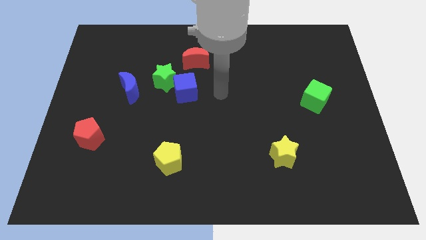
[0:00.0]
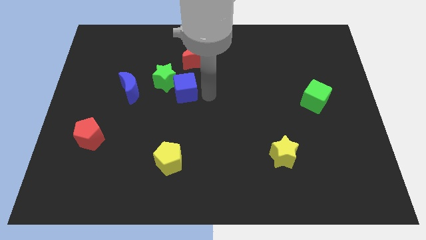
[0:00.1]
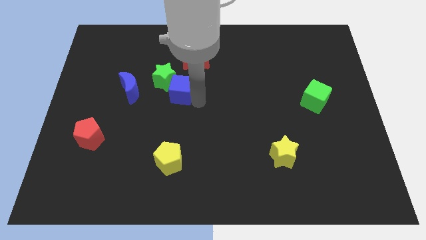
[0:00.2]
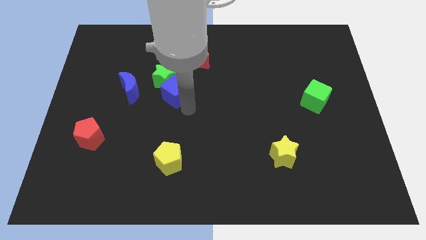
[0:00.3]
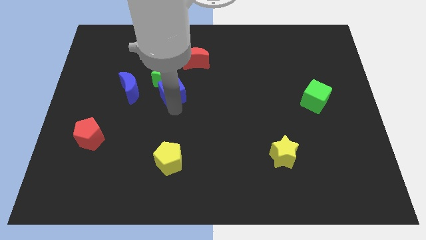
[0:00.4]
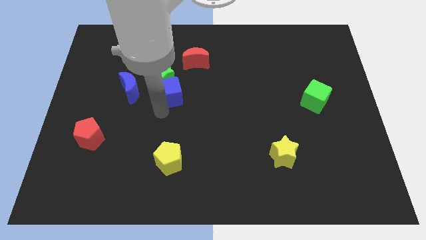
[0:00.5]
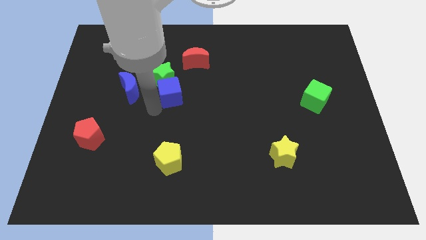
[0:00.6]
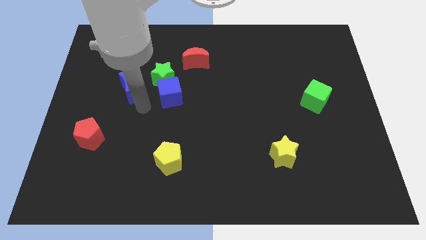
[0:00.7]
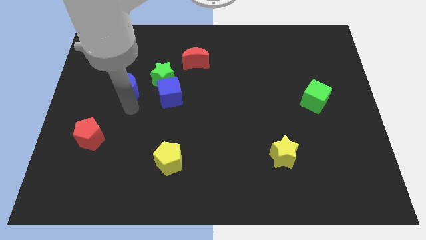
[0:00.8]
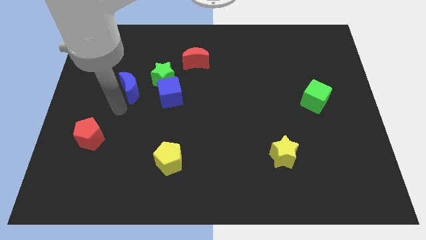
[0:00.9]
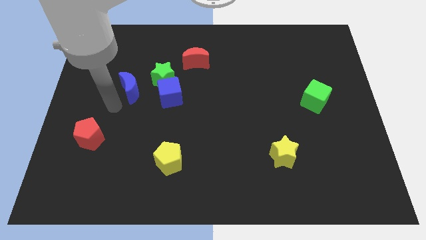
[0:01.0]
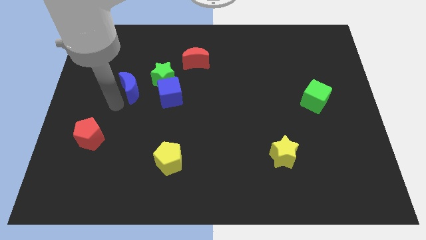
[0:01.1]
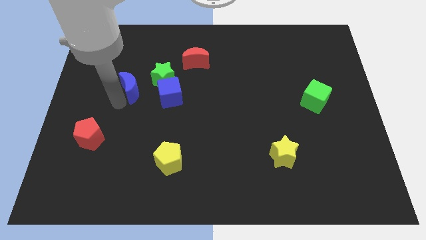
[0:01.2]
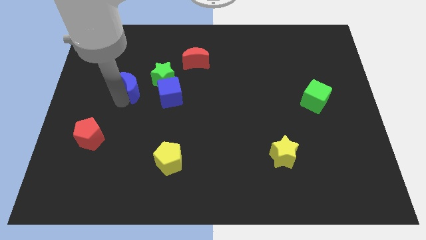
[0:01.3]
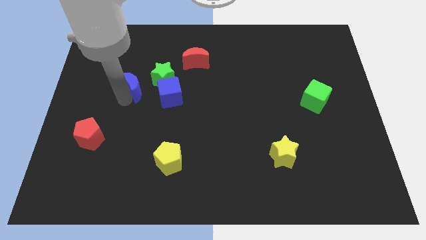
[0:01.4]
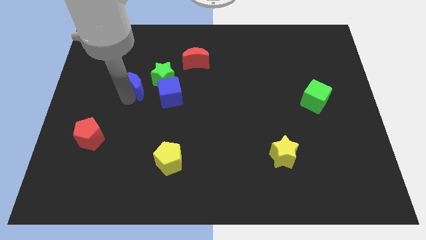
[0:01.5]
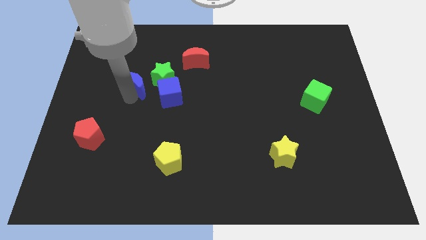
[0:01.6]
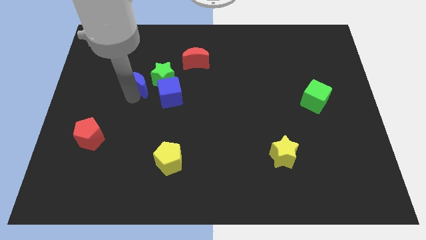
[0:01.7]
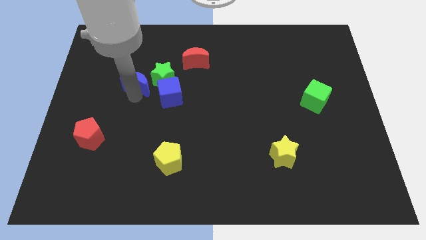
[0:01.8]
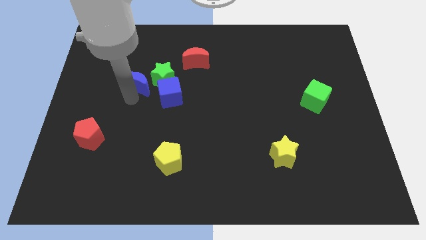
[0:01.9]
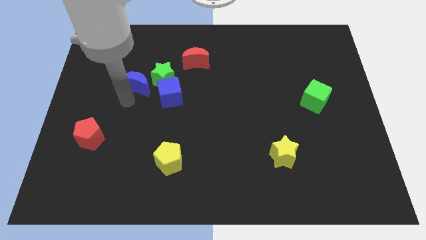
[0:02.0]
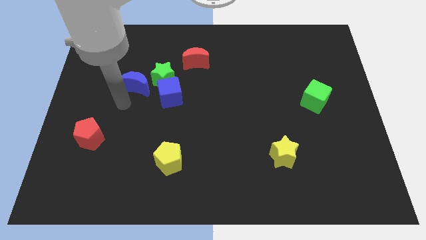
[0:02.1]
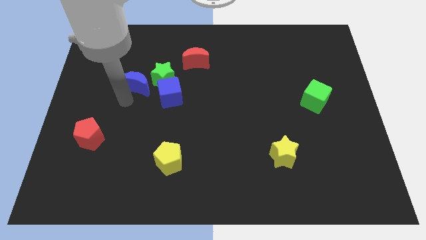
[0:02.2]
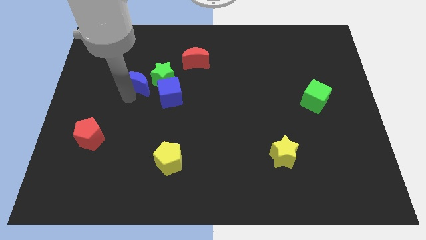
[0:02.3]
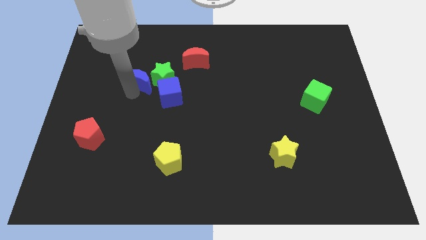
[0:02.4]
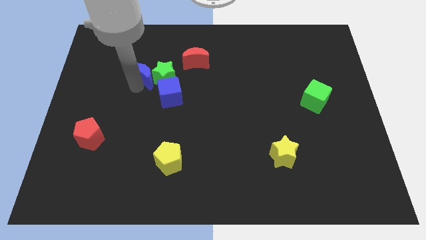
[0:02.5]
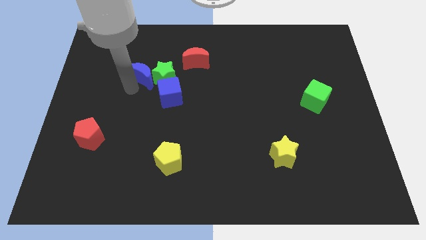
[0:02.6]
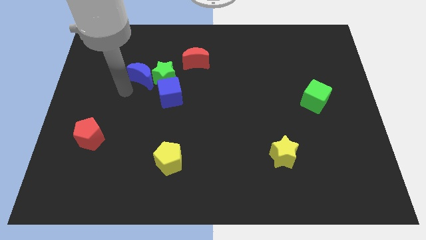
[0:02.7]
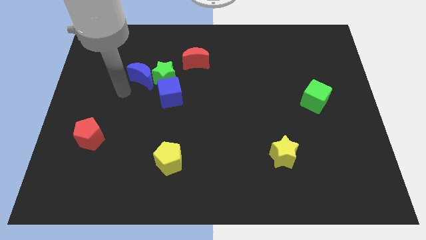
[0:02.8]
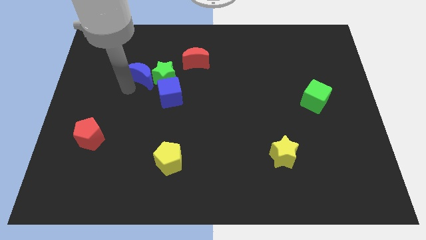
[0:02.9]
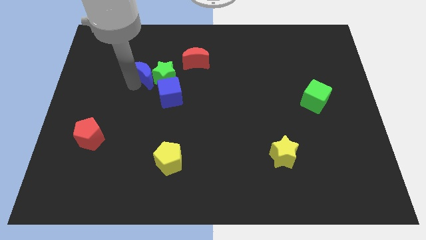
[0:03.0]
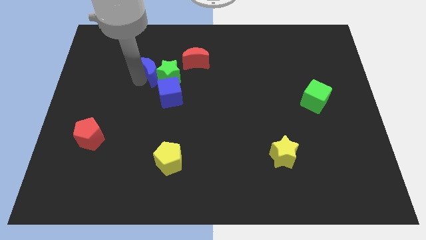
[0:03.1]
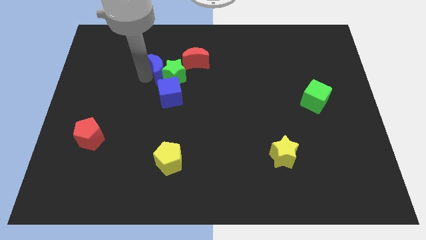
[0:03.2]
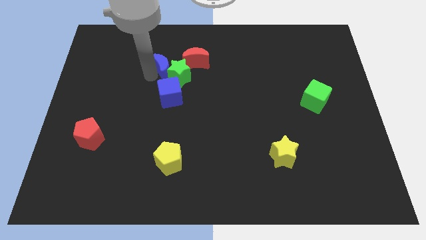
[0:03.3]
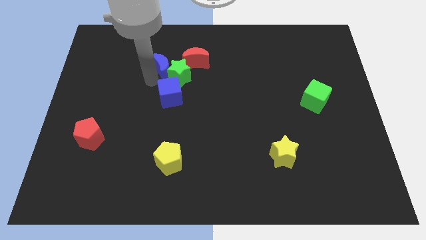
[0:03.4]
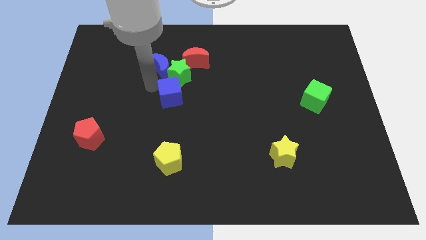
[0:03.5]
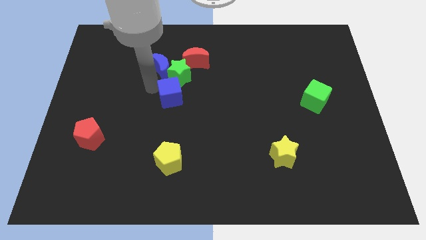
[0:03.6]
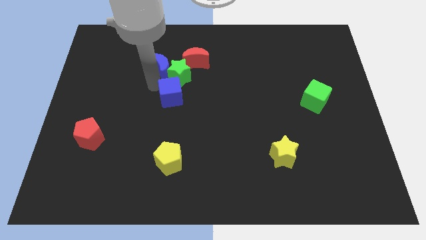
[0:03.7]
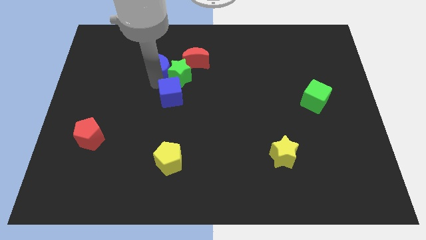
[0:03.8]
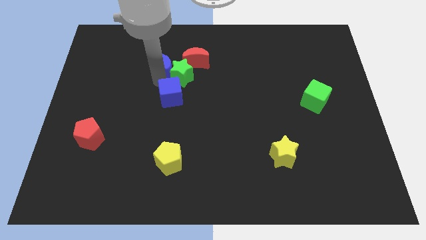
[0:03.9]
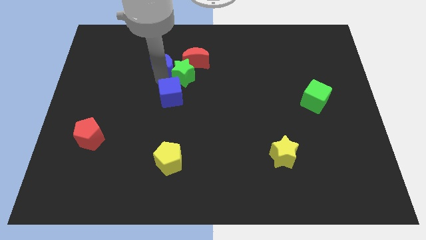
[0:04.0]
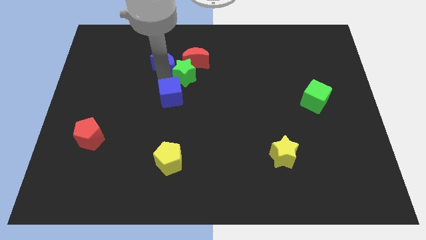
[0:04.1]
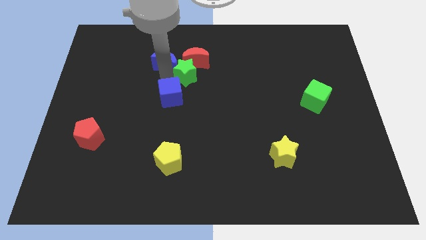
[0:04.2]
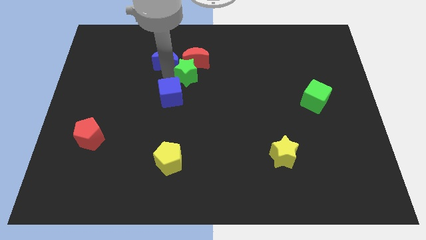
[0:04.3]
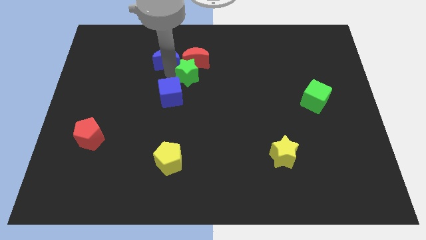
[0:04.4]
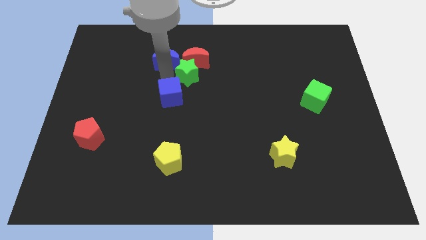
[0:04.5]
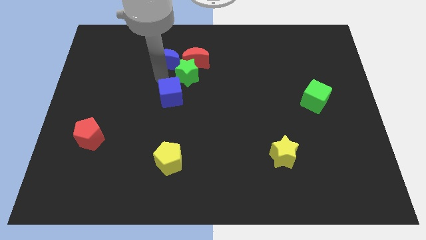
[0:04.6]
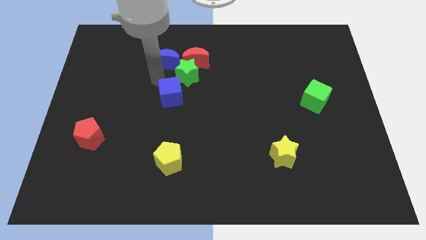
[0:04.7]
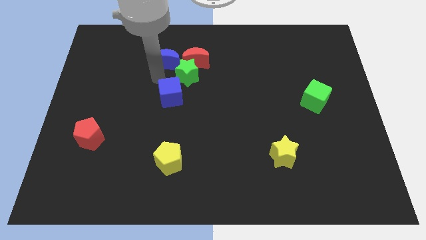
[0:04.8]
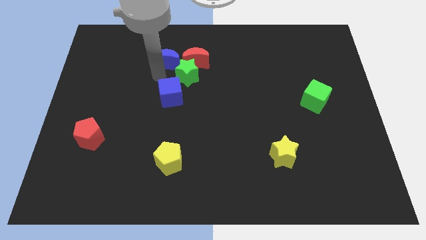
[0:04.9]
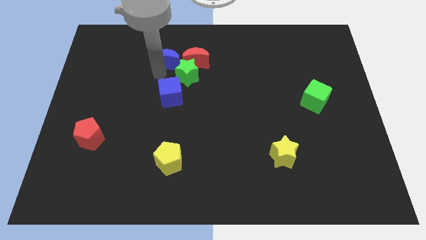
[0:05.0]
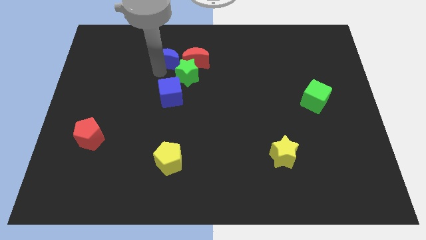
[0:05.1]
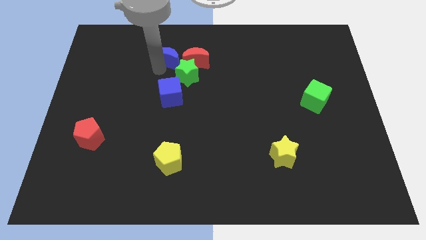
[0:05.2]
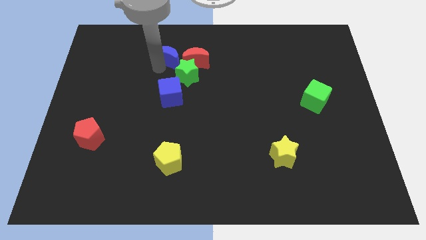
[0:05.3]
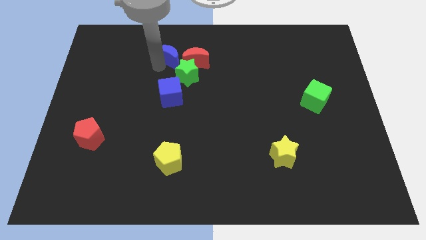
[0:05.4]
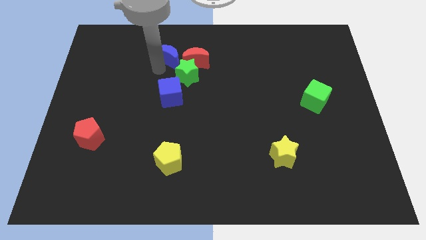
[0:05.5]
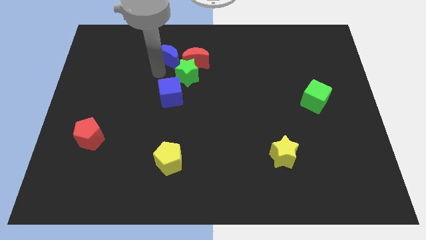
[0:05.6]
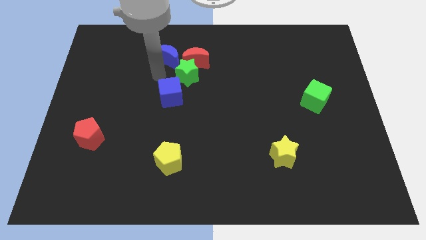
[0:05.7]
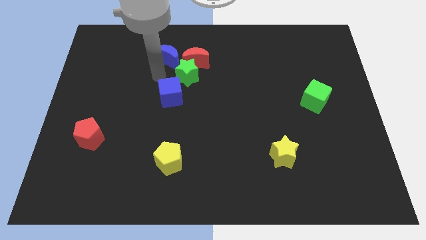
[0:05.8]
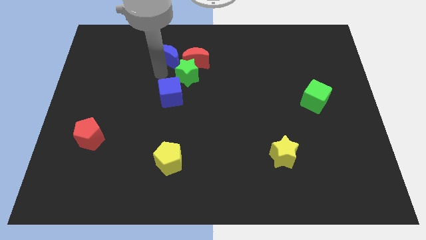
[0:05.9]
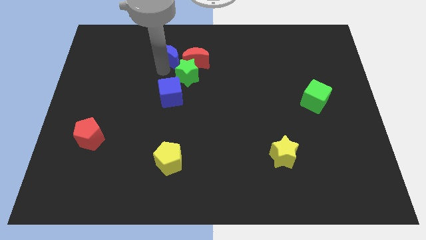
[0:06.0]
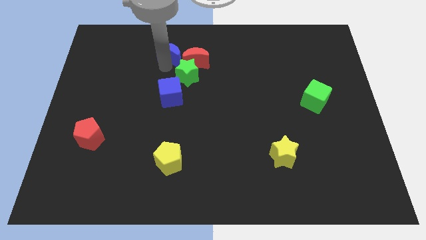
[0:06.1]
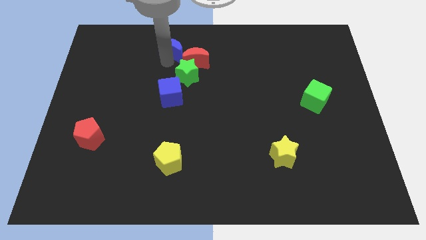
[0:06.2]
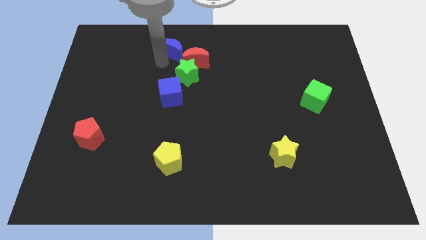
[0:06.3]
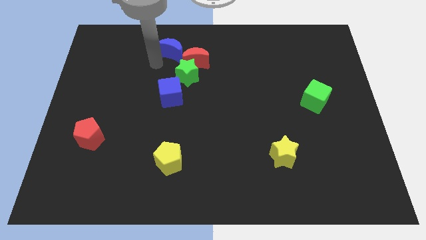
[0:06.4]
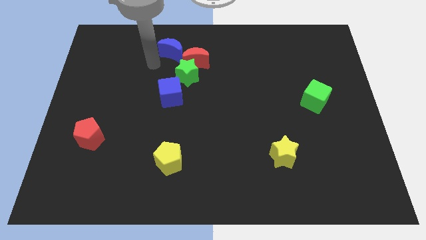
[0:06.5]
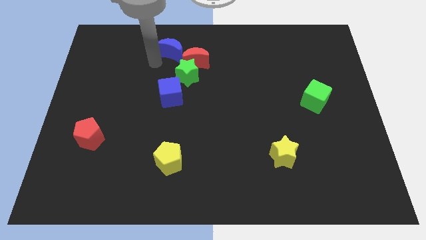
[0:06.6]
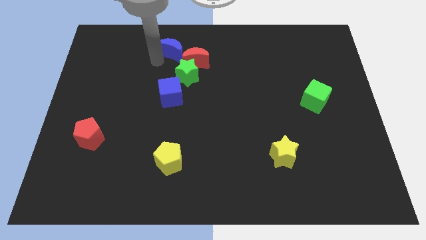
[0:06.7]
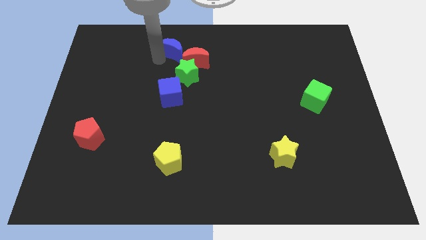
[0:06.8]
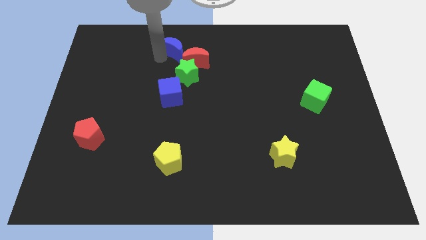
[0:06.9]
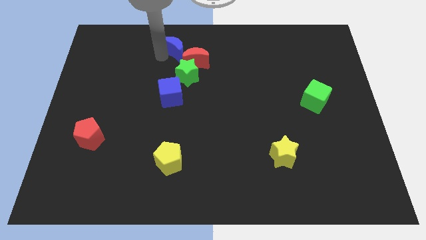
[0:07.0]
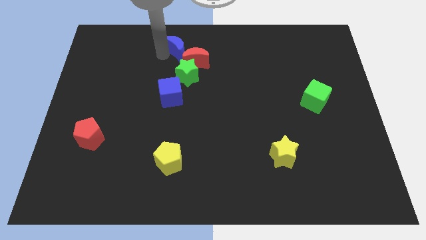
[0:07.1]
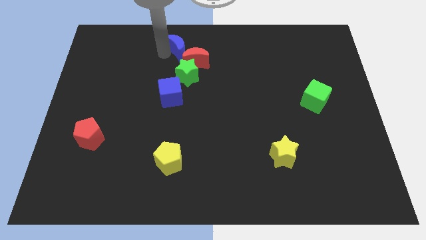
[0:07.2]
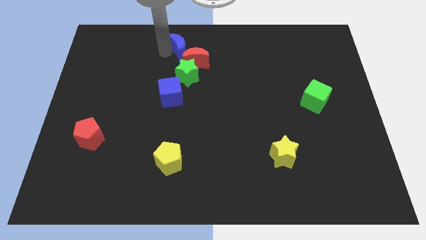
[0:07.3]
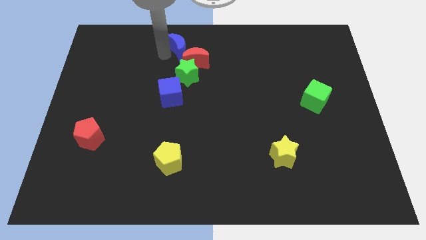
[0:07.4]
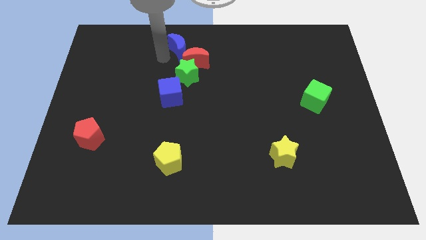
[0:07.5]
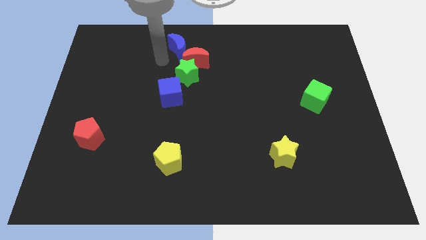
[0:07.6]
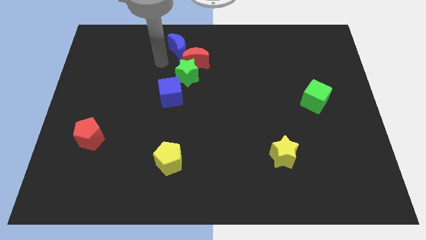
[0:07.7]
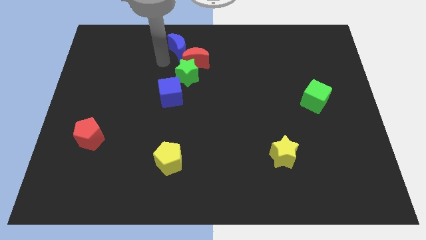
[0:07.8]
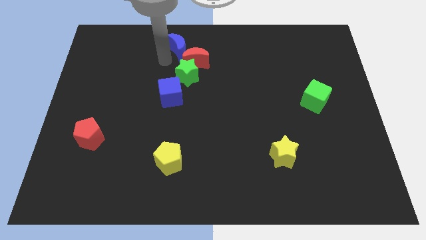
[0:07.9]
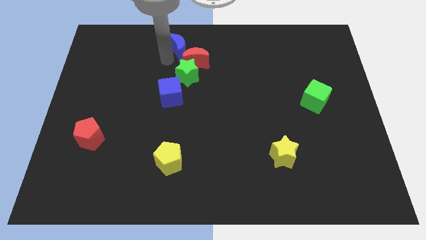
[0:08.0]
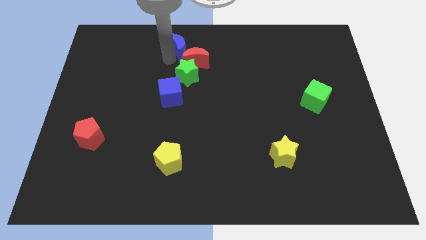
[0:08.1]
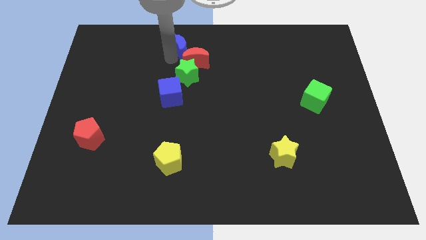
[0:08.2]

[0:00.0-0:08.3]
put the blue moon to the towards your base
